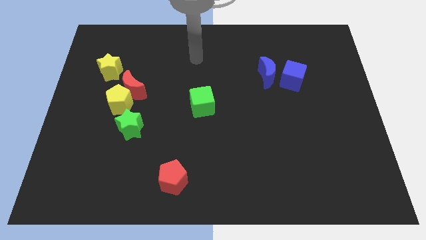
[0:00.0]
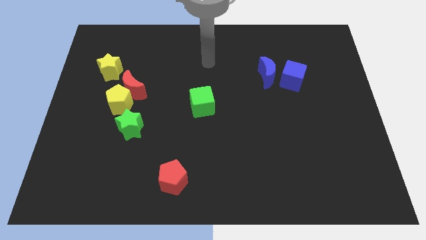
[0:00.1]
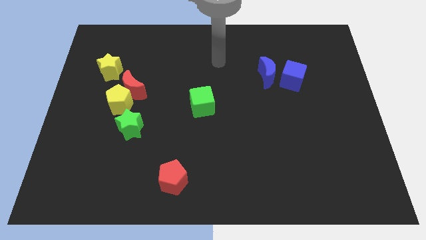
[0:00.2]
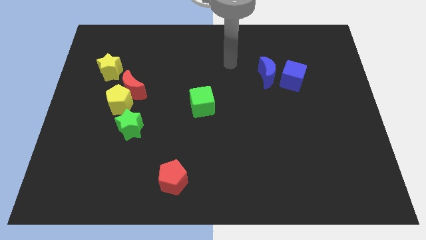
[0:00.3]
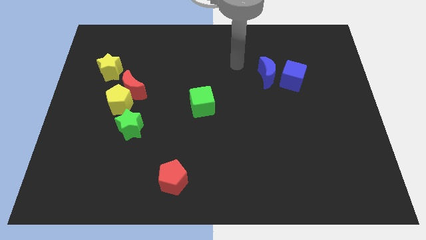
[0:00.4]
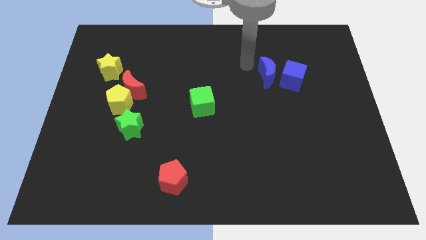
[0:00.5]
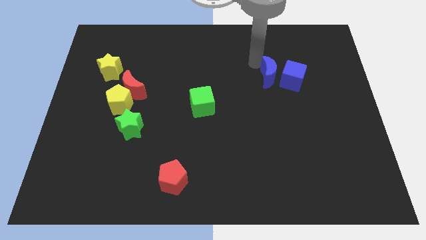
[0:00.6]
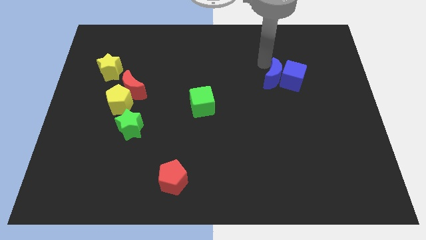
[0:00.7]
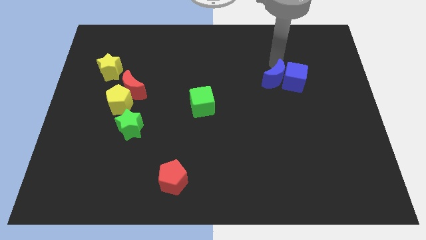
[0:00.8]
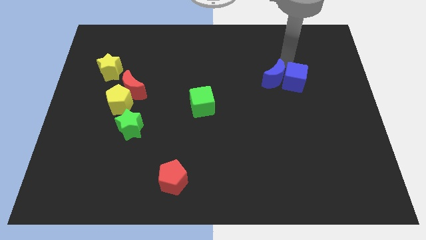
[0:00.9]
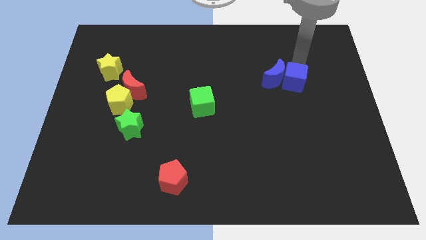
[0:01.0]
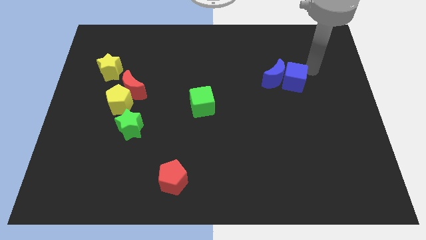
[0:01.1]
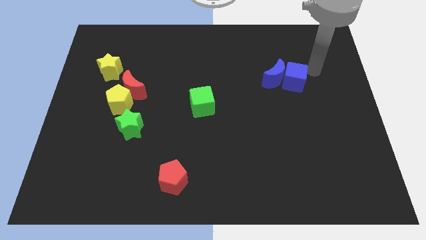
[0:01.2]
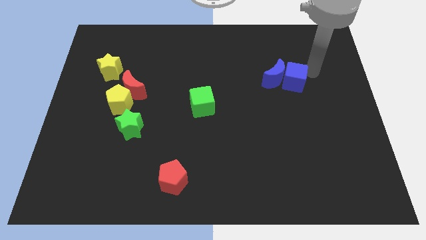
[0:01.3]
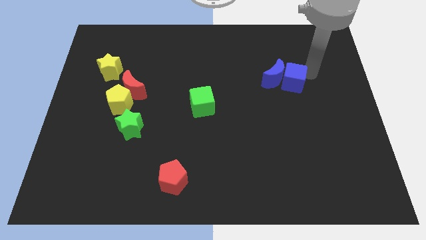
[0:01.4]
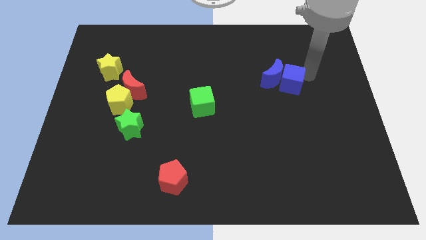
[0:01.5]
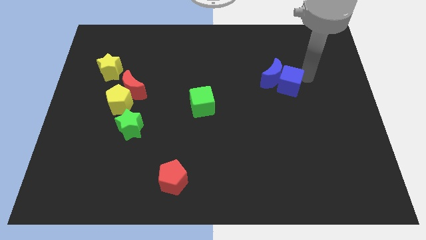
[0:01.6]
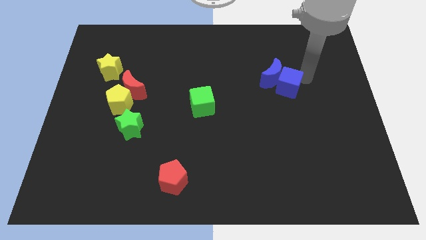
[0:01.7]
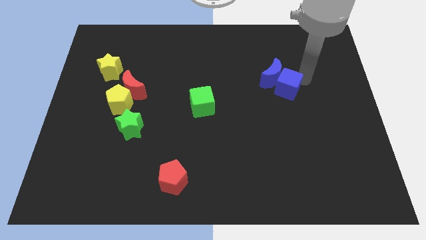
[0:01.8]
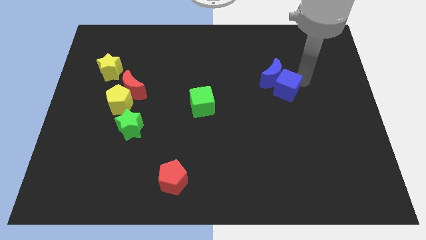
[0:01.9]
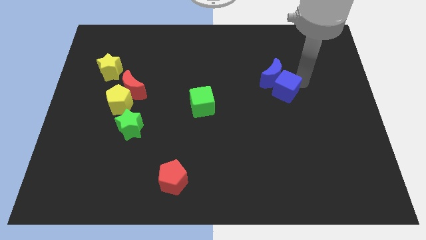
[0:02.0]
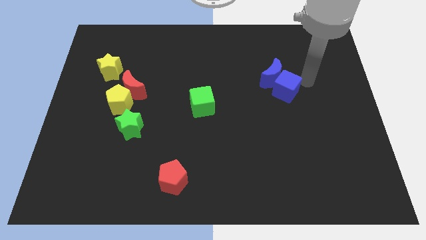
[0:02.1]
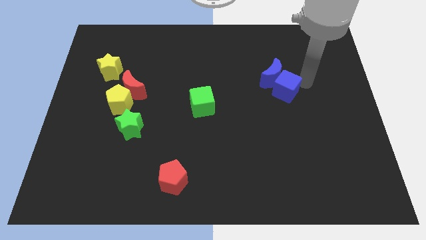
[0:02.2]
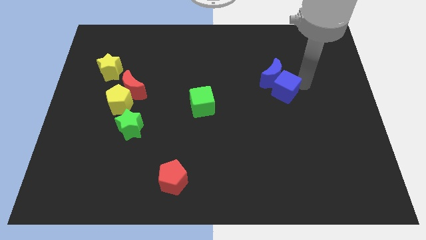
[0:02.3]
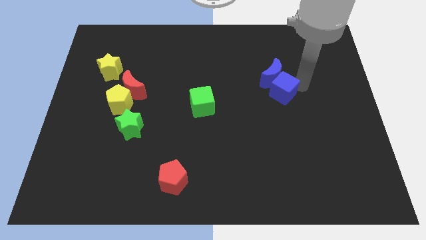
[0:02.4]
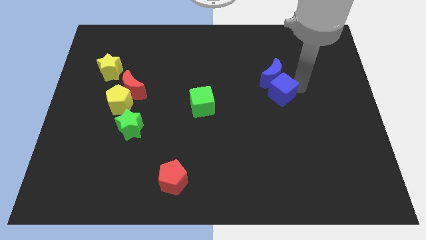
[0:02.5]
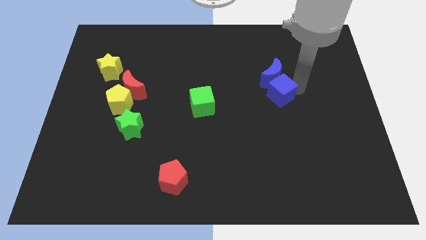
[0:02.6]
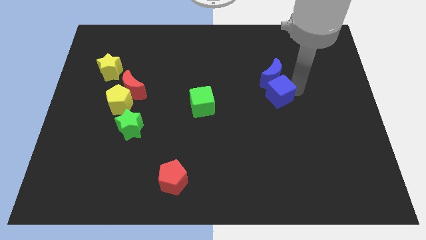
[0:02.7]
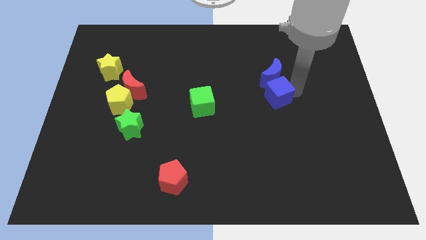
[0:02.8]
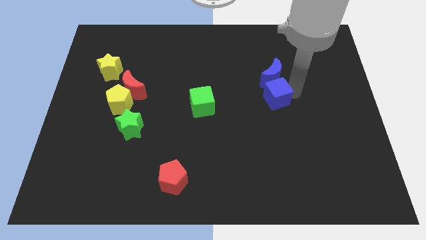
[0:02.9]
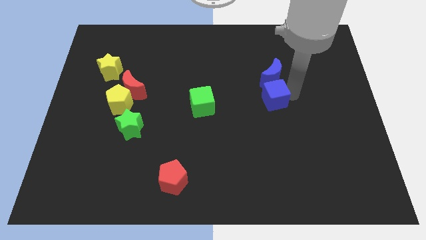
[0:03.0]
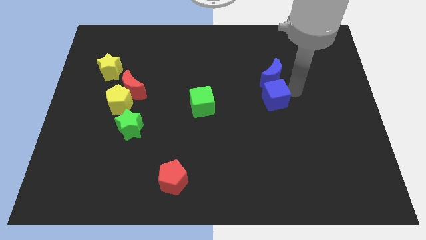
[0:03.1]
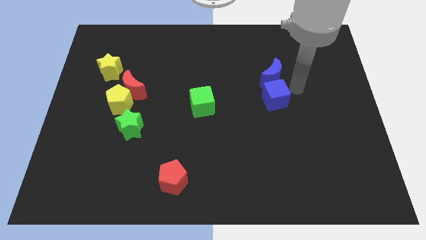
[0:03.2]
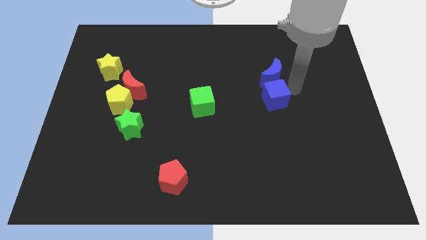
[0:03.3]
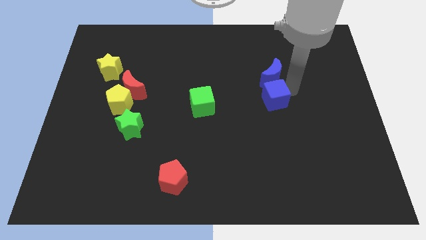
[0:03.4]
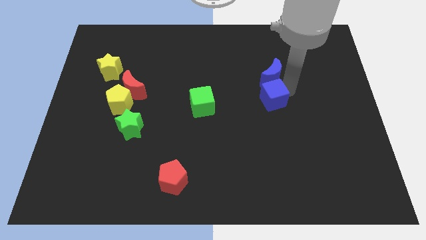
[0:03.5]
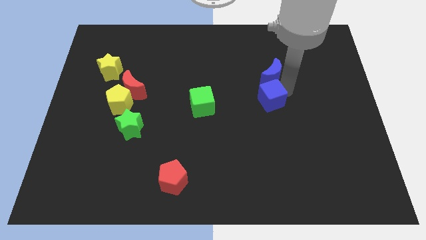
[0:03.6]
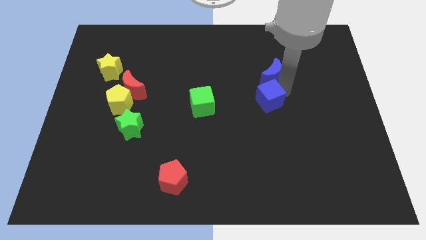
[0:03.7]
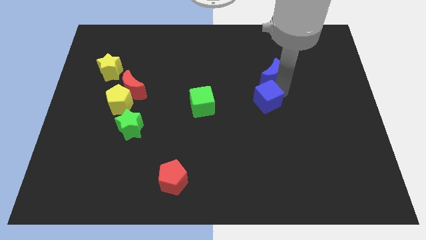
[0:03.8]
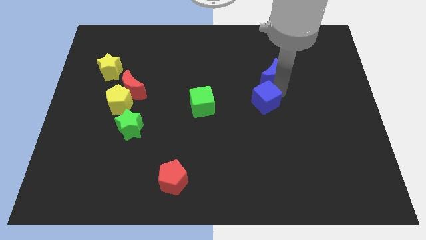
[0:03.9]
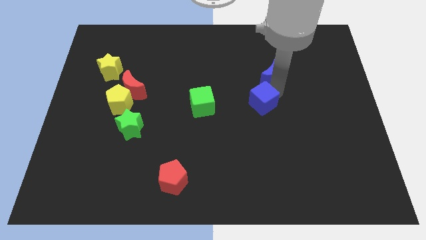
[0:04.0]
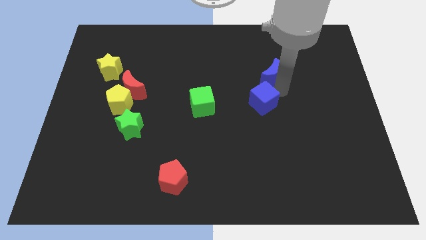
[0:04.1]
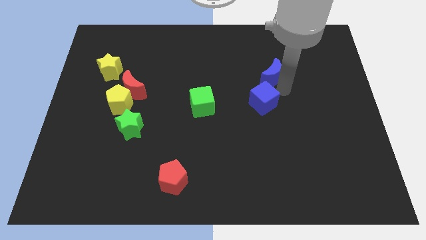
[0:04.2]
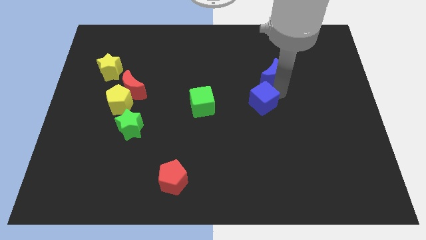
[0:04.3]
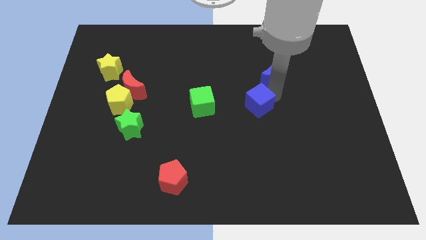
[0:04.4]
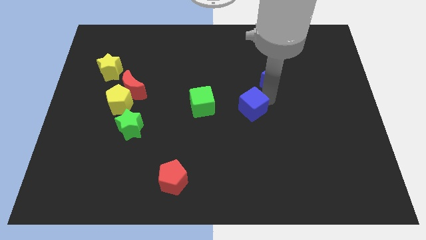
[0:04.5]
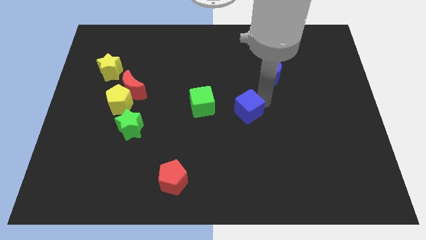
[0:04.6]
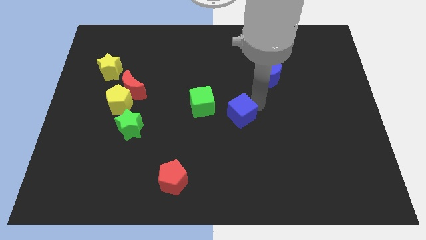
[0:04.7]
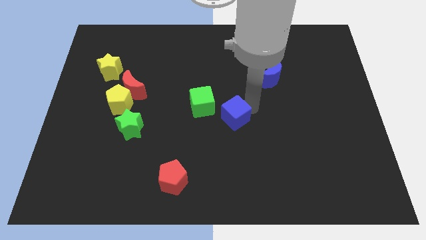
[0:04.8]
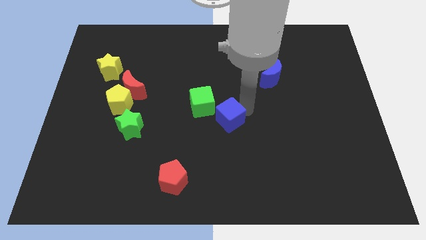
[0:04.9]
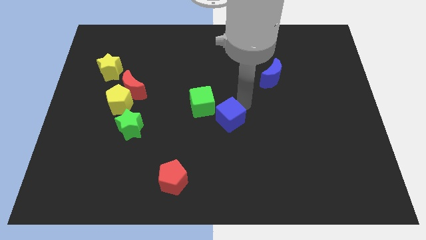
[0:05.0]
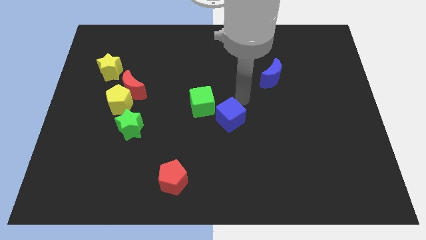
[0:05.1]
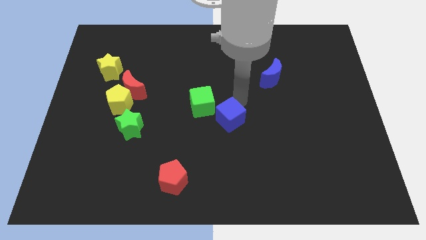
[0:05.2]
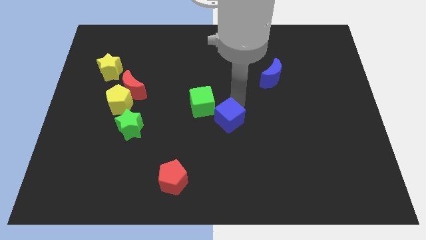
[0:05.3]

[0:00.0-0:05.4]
move the blue cube down and then to the left

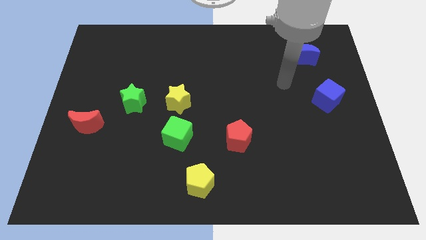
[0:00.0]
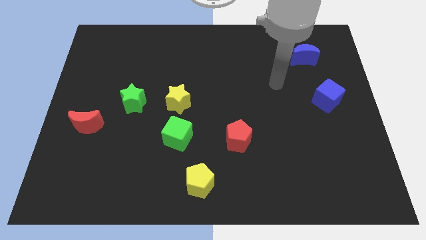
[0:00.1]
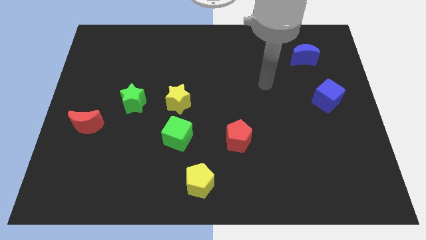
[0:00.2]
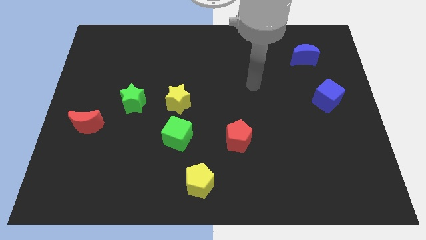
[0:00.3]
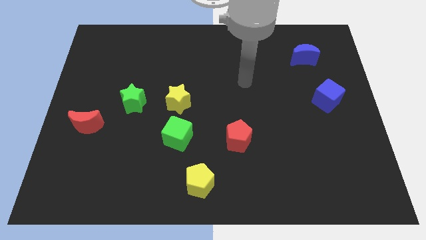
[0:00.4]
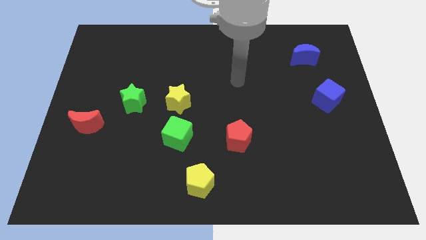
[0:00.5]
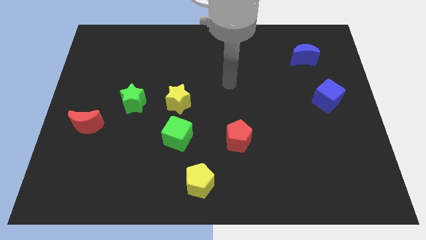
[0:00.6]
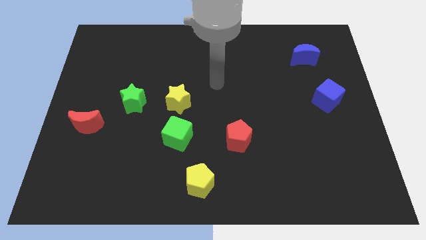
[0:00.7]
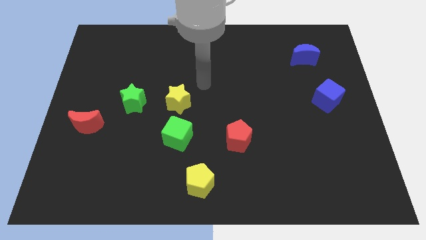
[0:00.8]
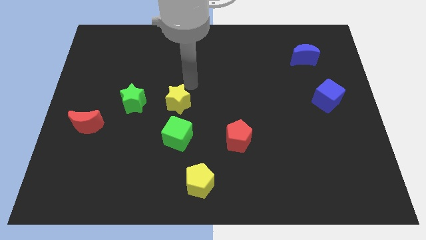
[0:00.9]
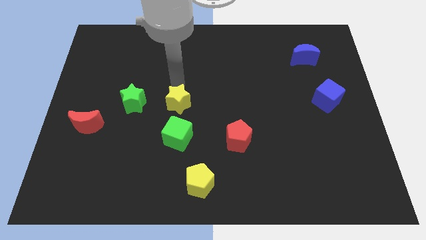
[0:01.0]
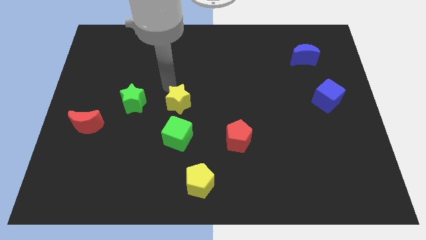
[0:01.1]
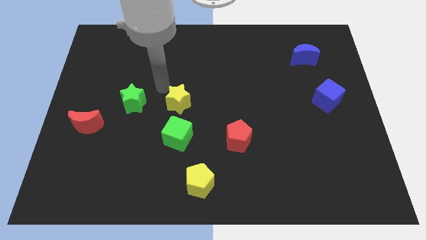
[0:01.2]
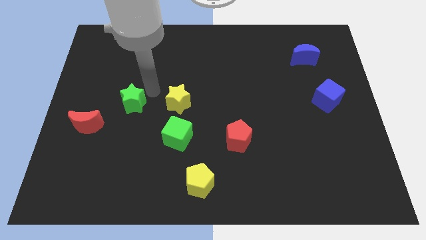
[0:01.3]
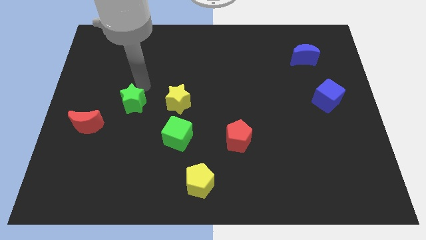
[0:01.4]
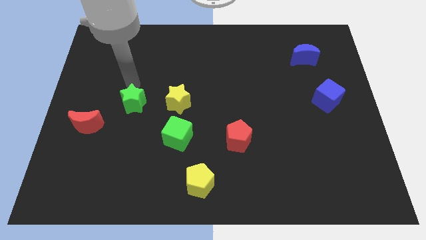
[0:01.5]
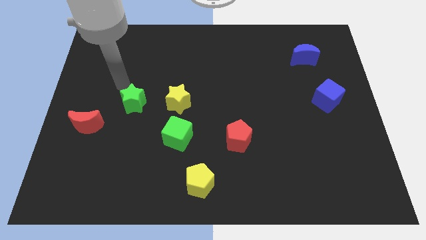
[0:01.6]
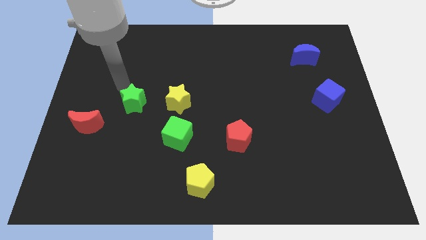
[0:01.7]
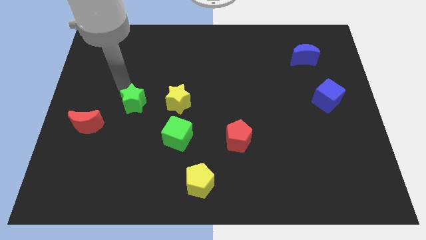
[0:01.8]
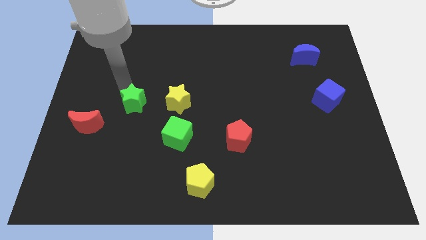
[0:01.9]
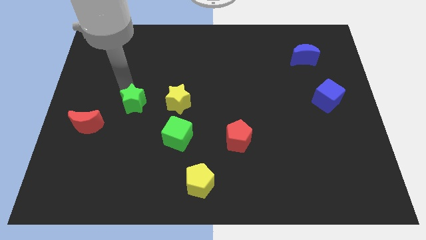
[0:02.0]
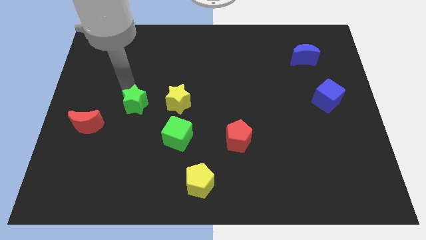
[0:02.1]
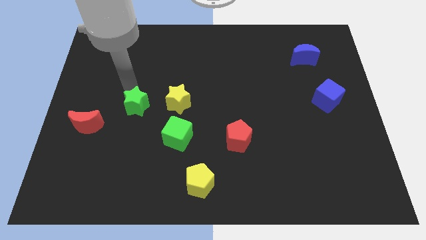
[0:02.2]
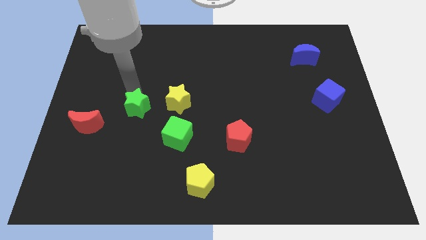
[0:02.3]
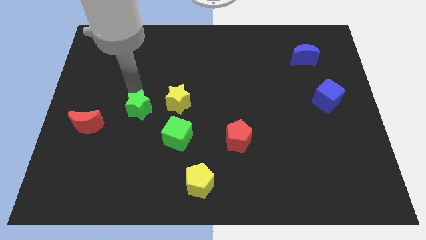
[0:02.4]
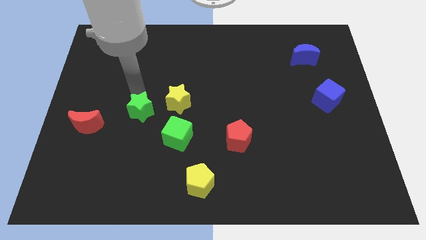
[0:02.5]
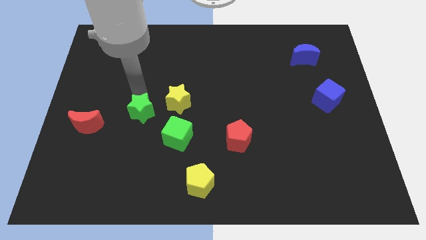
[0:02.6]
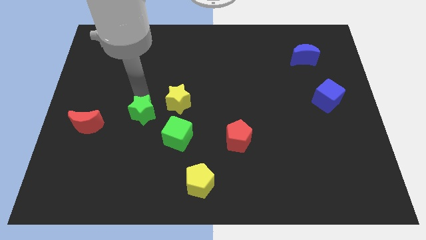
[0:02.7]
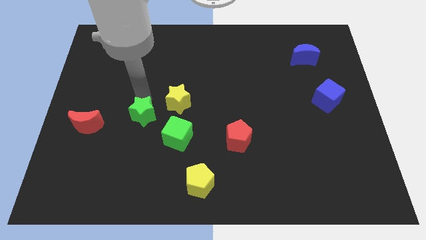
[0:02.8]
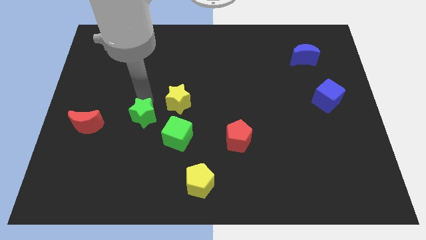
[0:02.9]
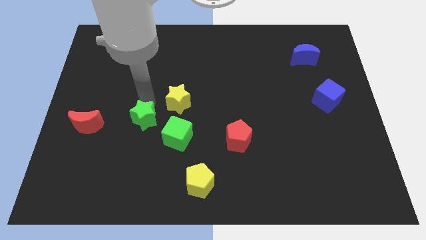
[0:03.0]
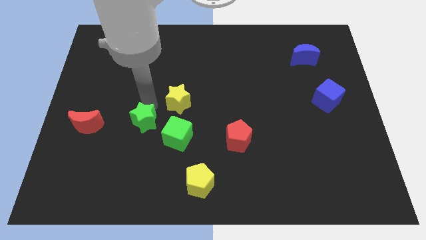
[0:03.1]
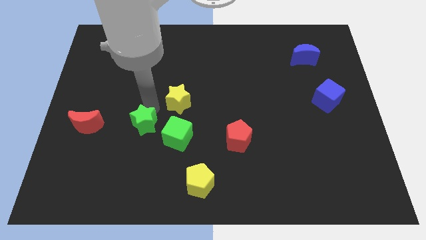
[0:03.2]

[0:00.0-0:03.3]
move the green star down and to the right diagonally a little bit
